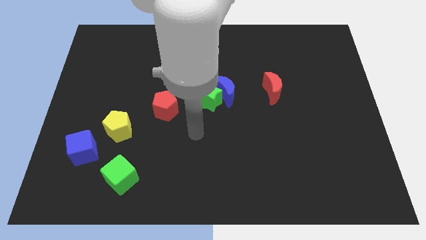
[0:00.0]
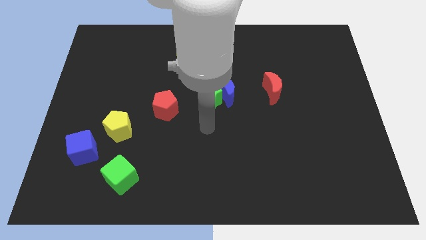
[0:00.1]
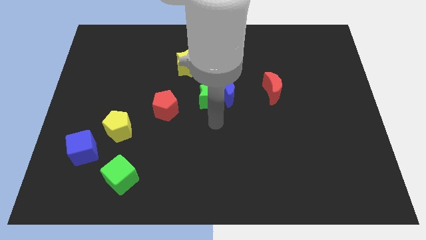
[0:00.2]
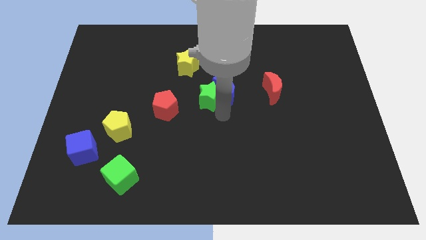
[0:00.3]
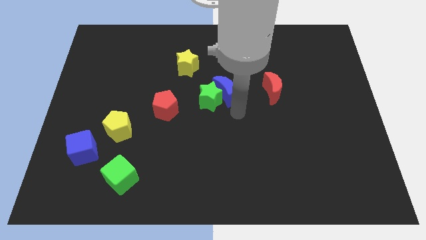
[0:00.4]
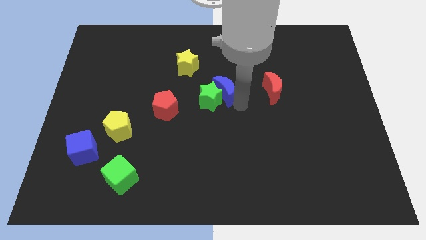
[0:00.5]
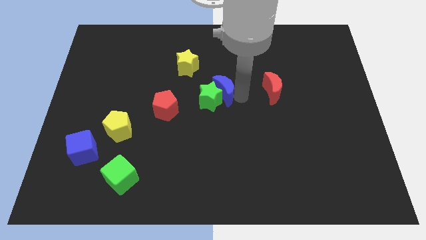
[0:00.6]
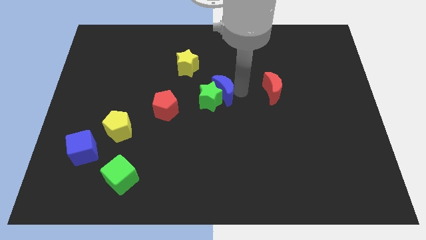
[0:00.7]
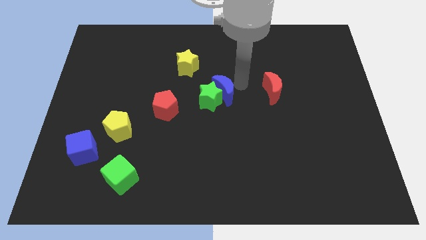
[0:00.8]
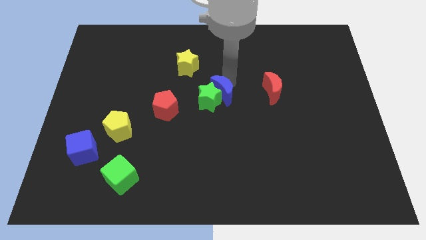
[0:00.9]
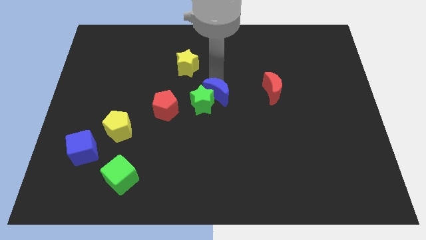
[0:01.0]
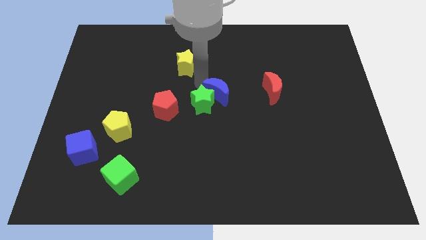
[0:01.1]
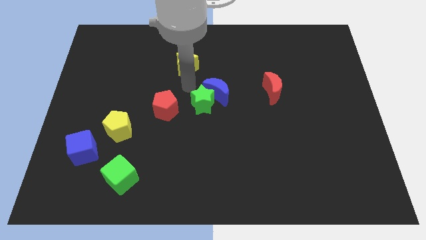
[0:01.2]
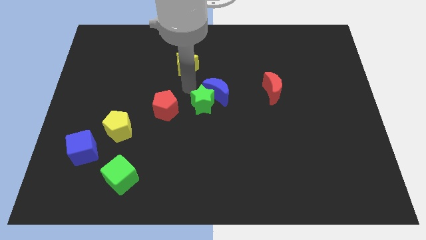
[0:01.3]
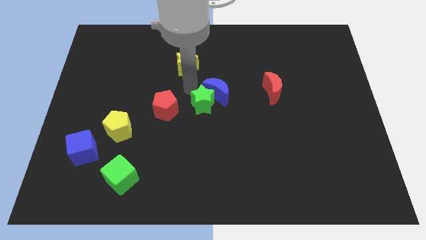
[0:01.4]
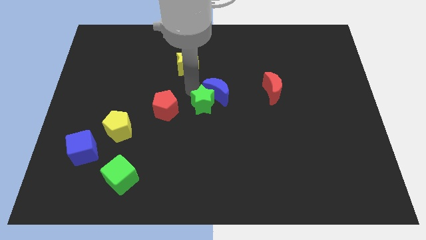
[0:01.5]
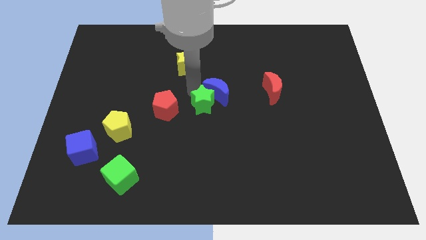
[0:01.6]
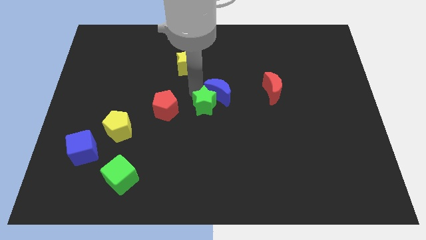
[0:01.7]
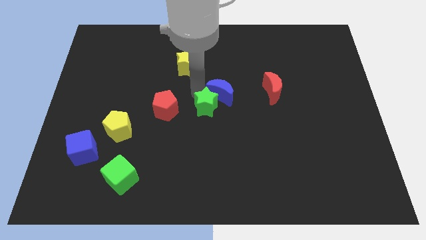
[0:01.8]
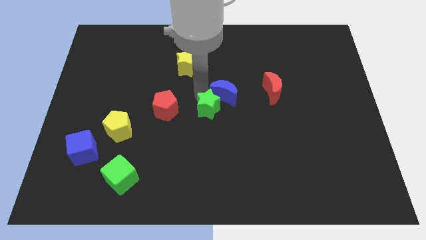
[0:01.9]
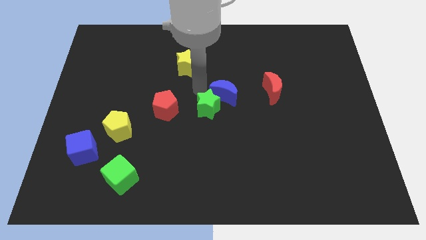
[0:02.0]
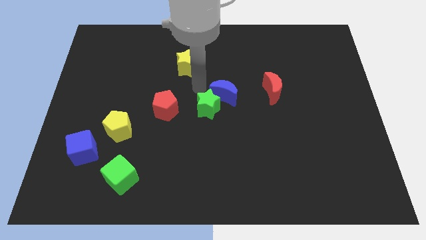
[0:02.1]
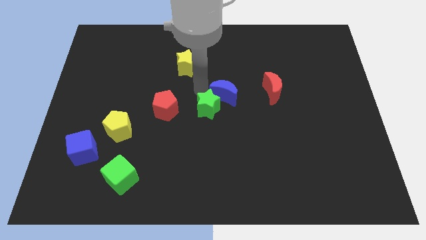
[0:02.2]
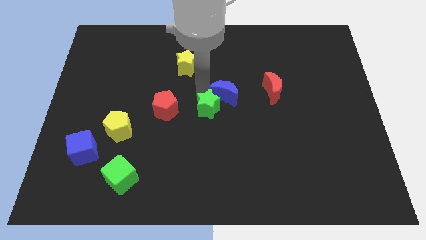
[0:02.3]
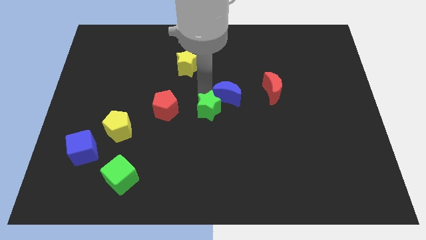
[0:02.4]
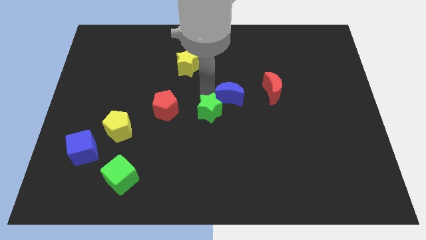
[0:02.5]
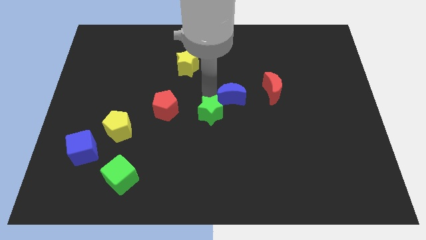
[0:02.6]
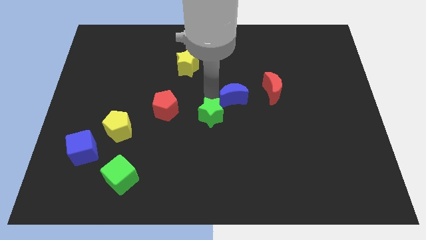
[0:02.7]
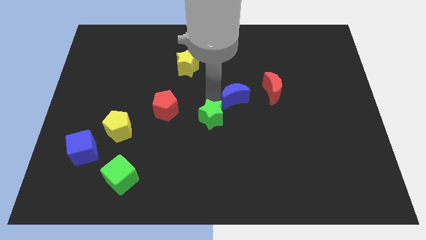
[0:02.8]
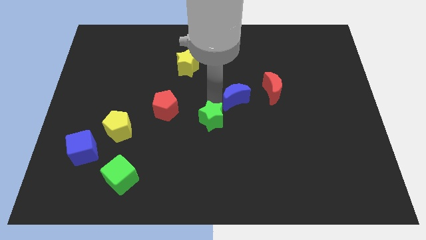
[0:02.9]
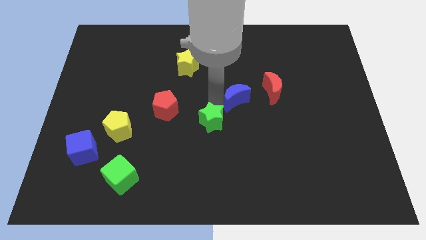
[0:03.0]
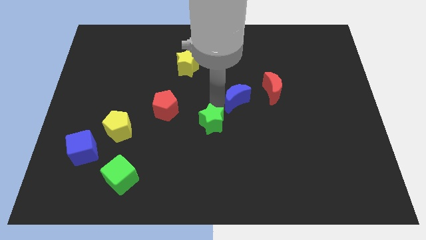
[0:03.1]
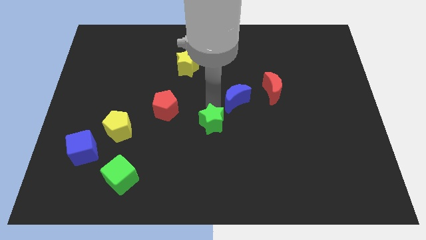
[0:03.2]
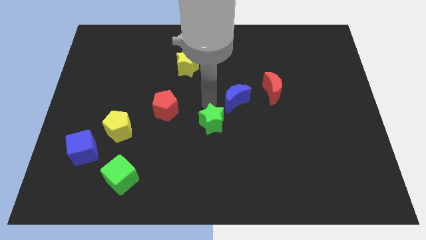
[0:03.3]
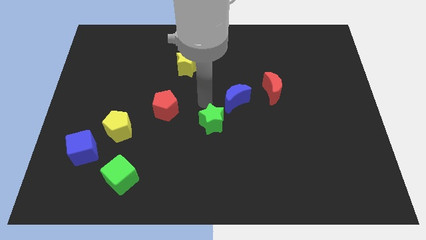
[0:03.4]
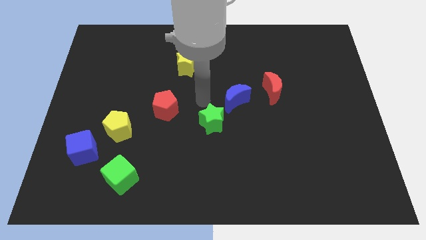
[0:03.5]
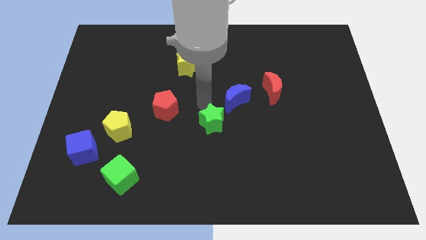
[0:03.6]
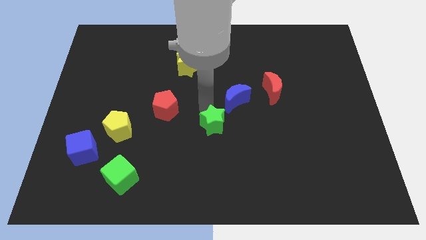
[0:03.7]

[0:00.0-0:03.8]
move the green star downwards a bit

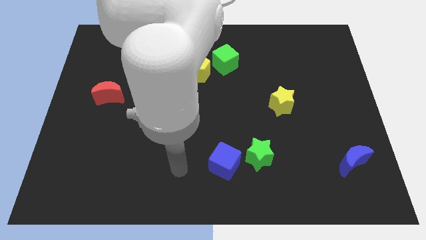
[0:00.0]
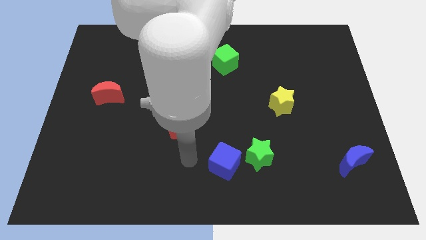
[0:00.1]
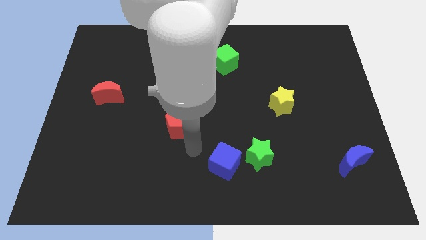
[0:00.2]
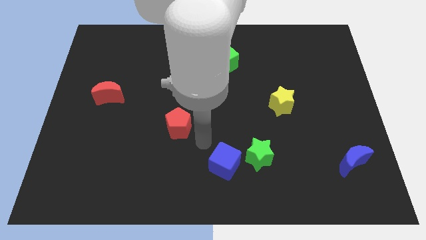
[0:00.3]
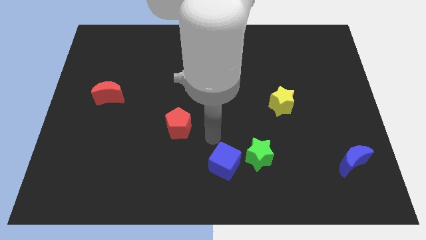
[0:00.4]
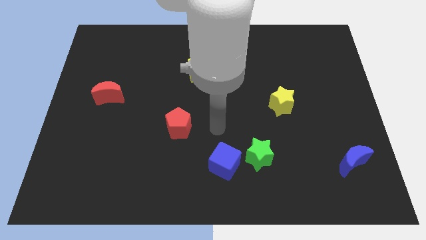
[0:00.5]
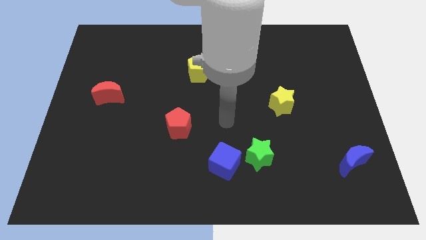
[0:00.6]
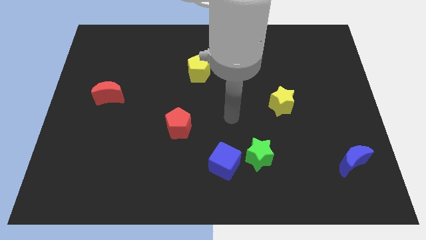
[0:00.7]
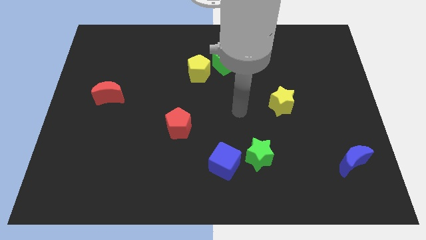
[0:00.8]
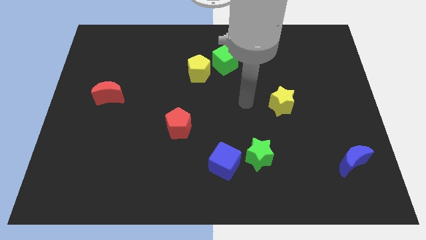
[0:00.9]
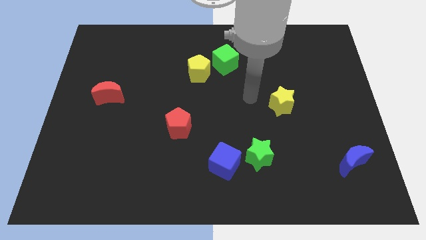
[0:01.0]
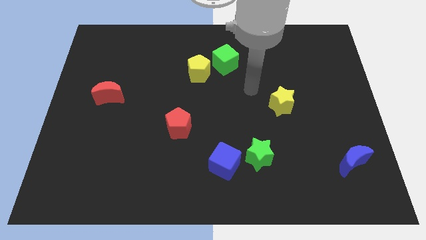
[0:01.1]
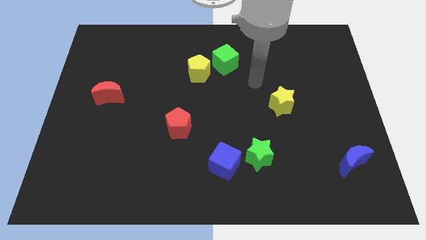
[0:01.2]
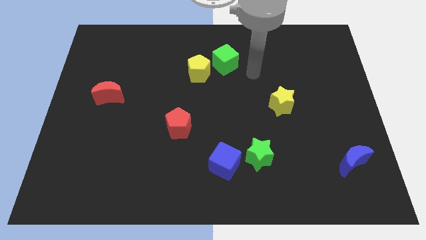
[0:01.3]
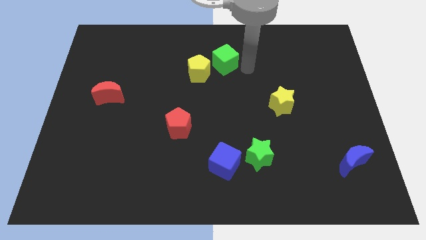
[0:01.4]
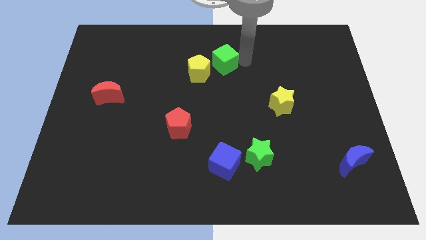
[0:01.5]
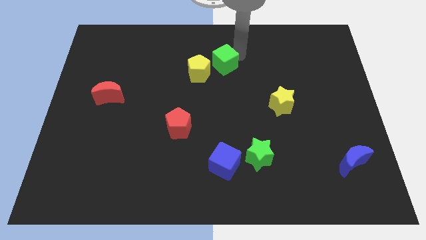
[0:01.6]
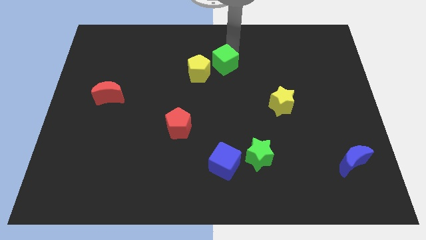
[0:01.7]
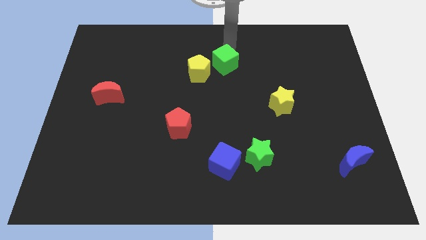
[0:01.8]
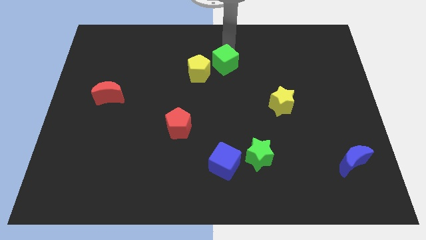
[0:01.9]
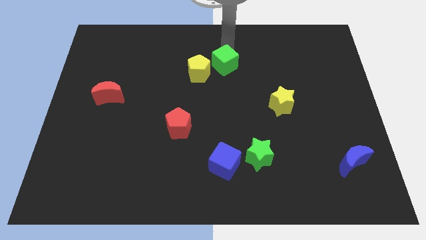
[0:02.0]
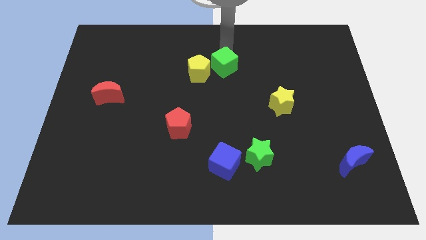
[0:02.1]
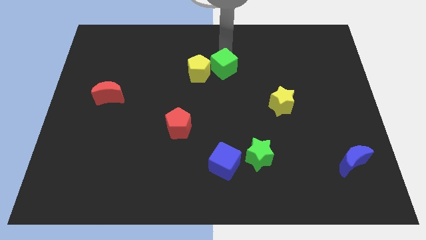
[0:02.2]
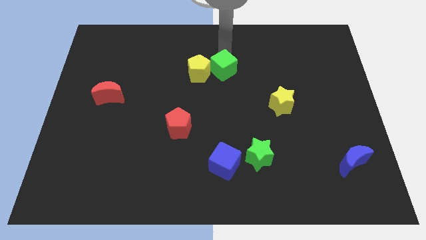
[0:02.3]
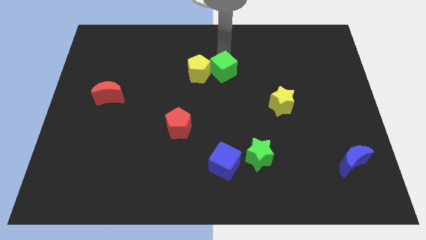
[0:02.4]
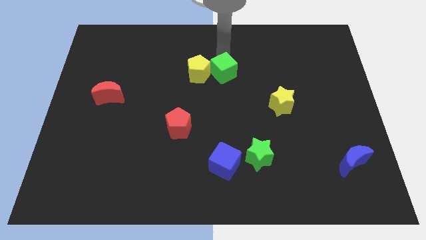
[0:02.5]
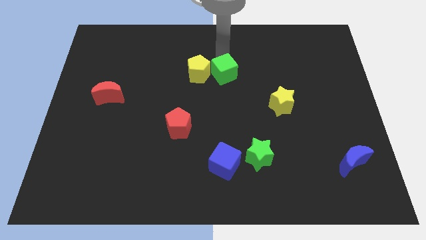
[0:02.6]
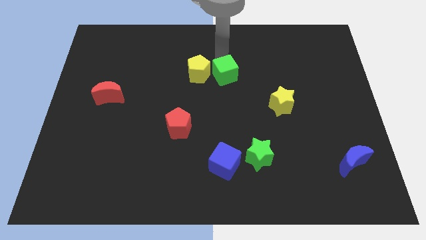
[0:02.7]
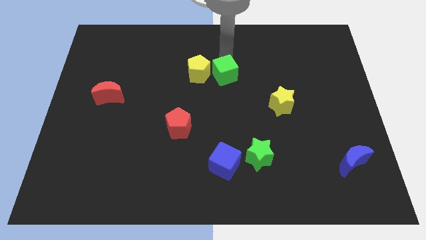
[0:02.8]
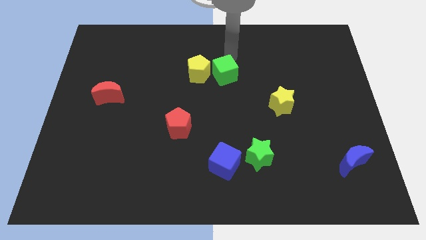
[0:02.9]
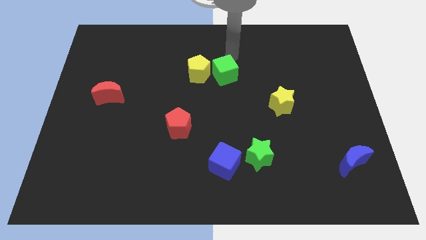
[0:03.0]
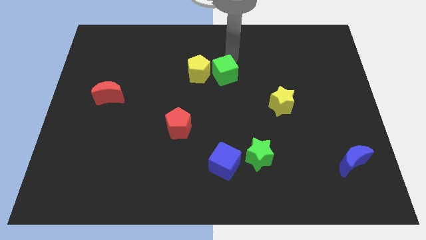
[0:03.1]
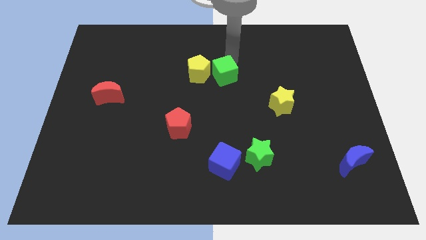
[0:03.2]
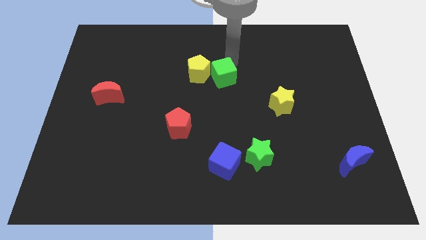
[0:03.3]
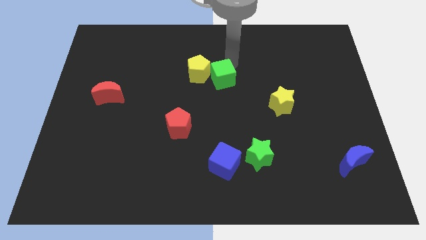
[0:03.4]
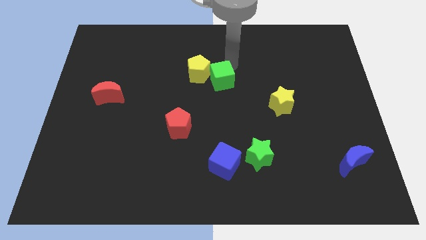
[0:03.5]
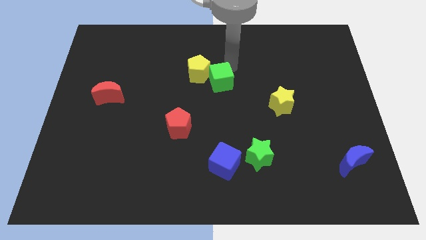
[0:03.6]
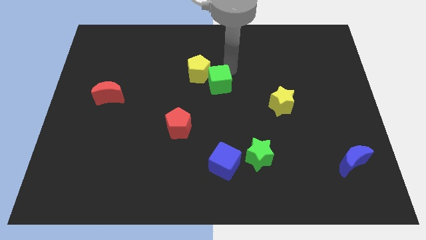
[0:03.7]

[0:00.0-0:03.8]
slightly push the green cube downwards

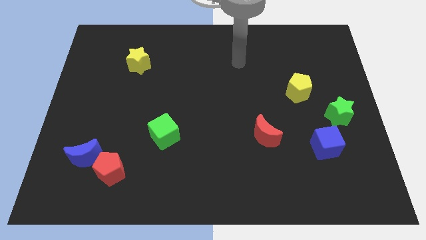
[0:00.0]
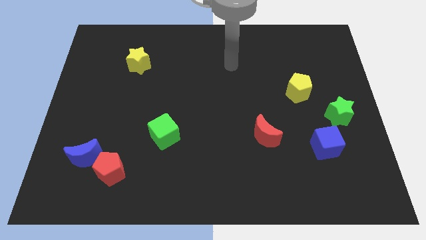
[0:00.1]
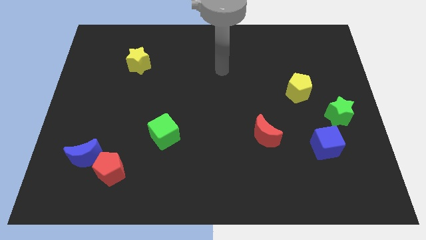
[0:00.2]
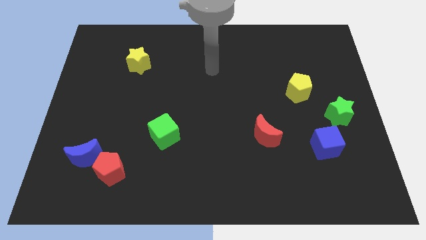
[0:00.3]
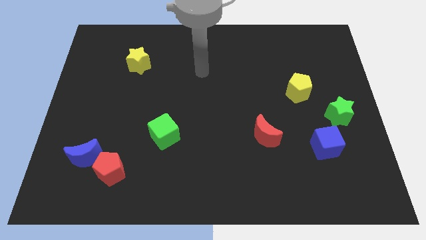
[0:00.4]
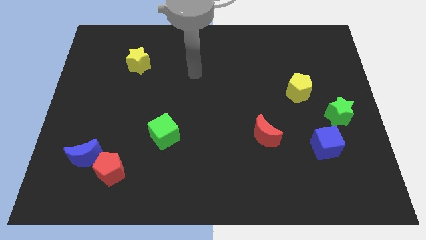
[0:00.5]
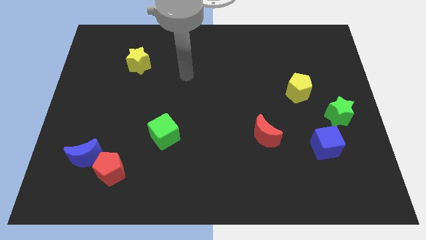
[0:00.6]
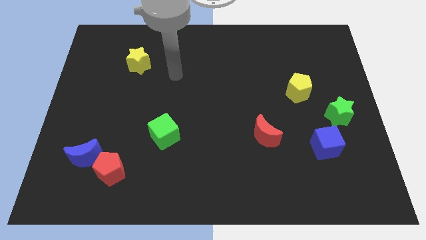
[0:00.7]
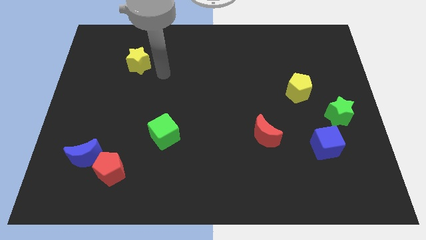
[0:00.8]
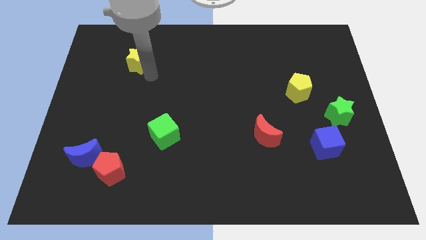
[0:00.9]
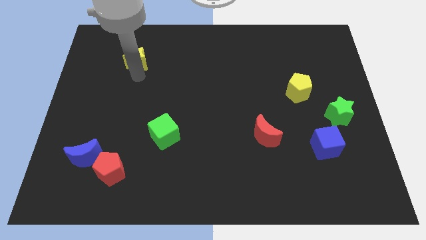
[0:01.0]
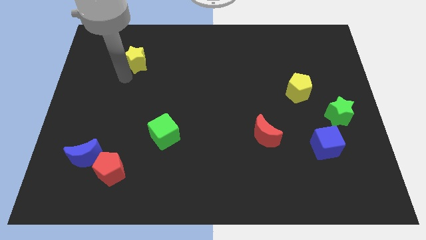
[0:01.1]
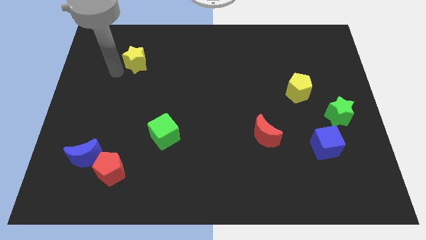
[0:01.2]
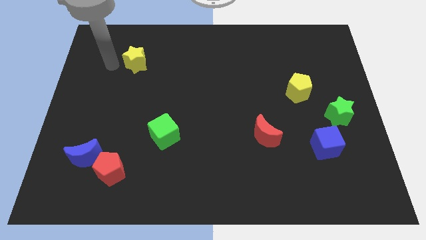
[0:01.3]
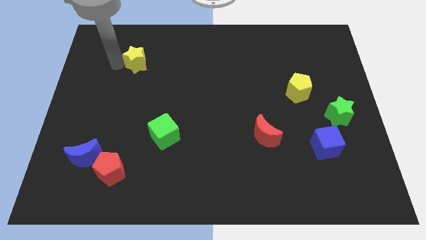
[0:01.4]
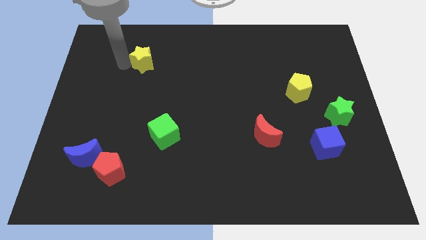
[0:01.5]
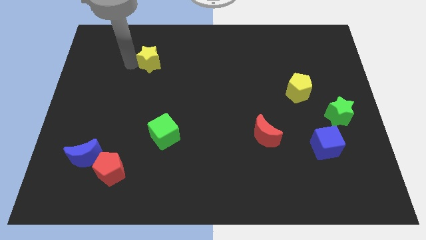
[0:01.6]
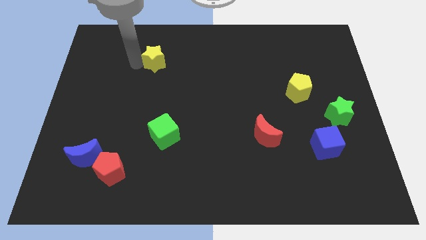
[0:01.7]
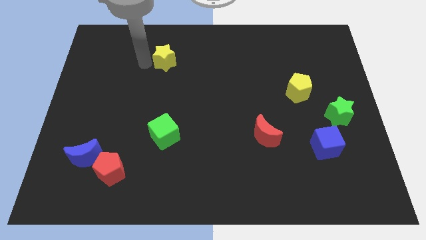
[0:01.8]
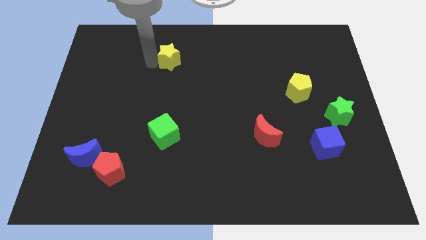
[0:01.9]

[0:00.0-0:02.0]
push the yellow star somewhat to the right
